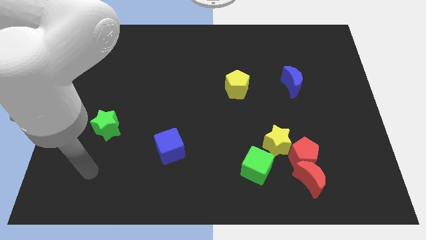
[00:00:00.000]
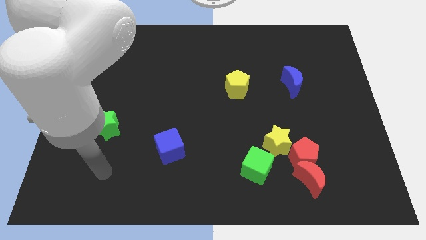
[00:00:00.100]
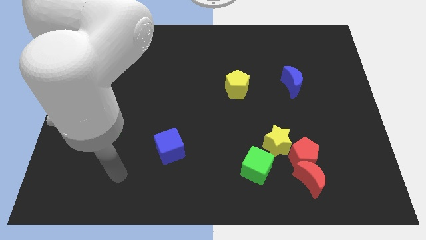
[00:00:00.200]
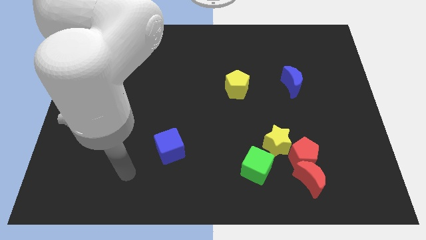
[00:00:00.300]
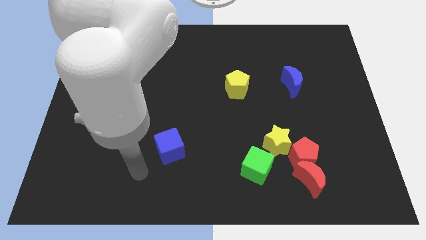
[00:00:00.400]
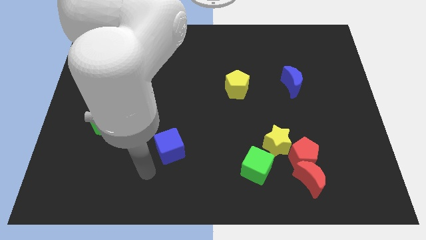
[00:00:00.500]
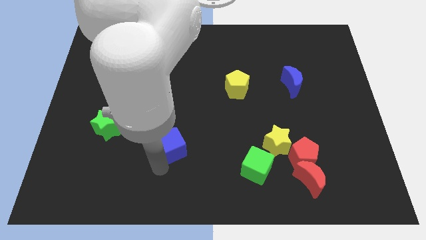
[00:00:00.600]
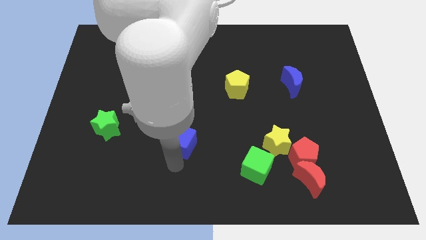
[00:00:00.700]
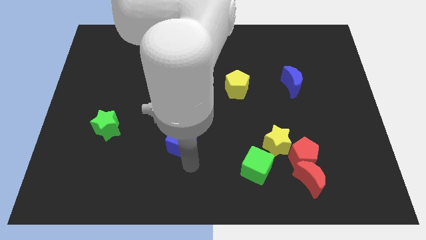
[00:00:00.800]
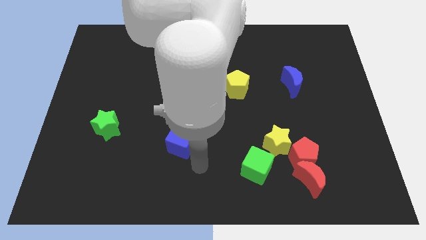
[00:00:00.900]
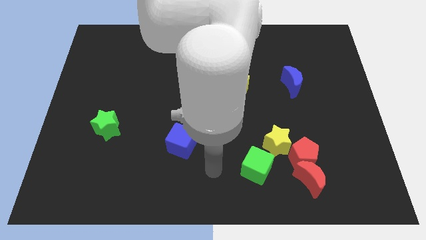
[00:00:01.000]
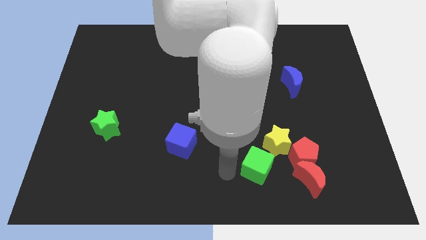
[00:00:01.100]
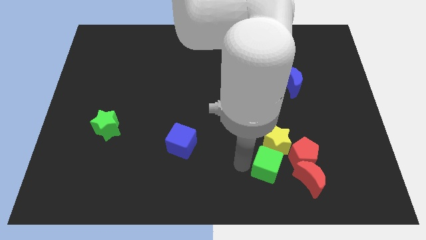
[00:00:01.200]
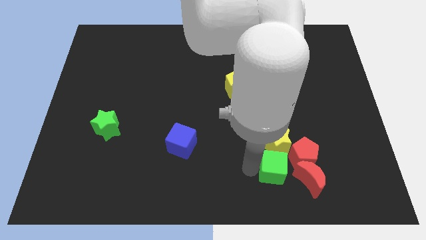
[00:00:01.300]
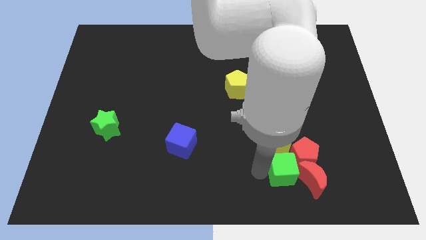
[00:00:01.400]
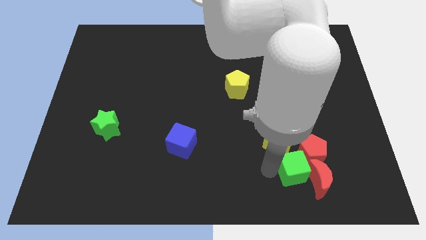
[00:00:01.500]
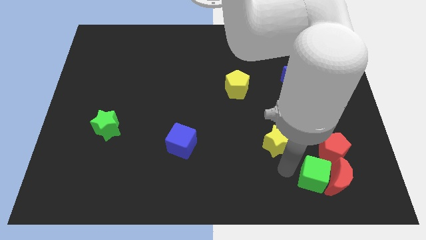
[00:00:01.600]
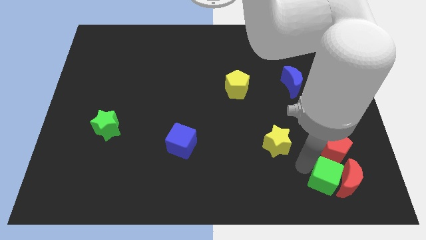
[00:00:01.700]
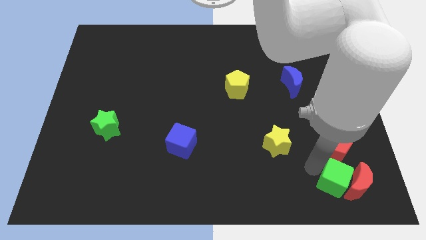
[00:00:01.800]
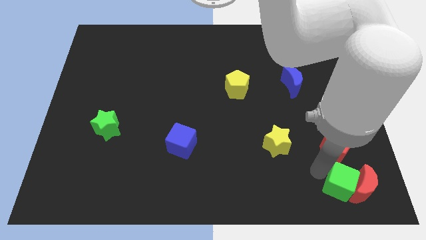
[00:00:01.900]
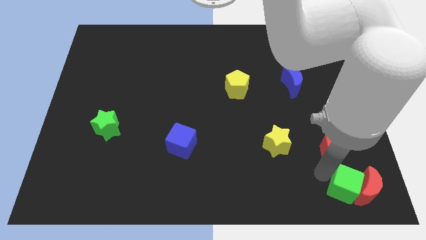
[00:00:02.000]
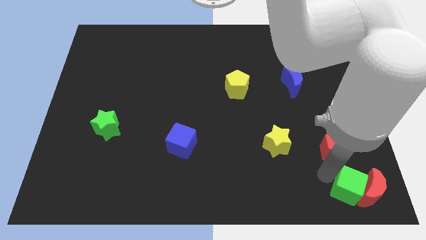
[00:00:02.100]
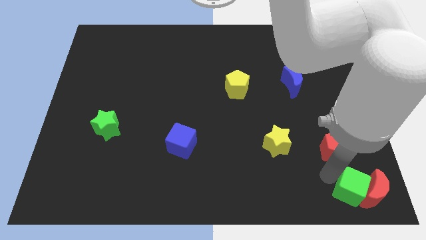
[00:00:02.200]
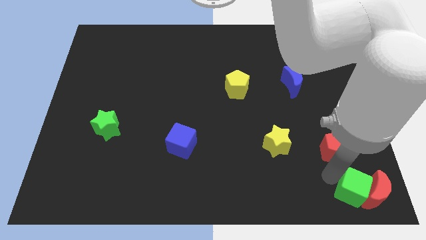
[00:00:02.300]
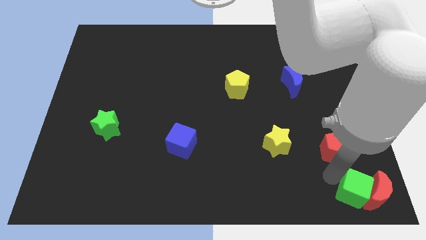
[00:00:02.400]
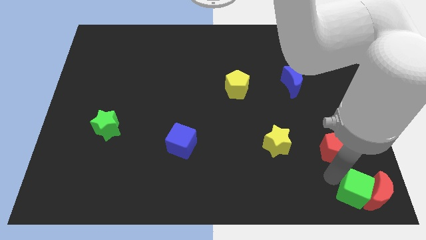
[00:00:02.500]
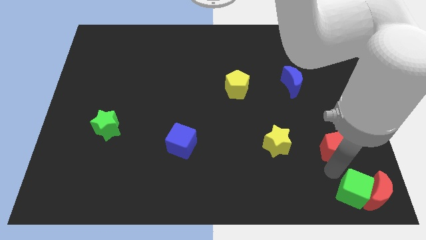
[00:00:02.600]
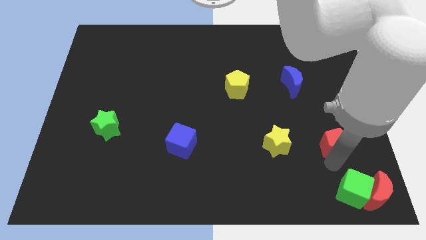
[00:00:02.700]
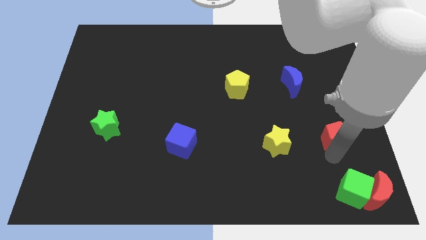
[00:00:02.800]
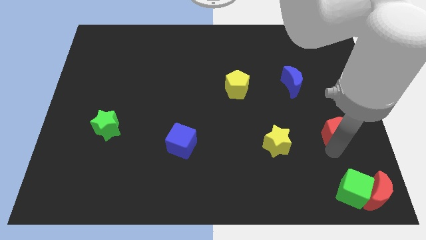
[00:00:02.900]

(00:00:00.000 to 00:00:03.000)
move the red pentagon away from the group

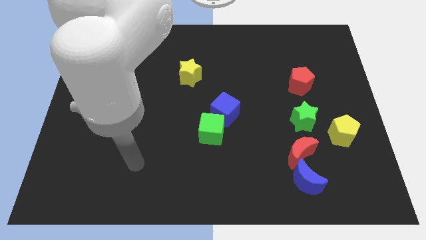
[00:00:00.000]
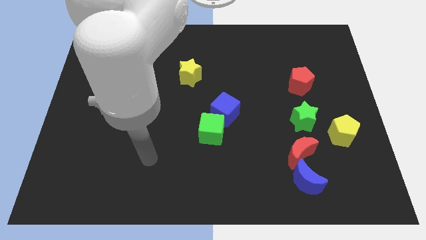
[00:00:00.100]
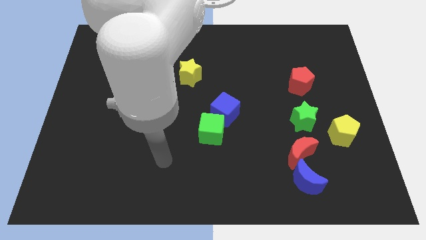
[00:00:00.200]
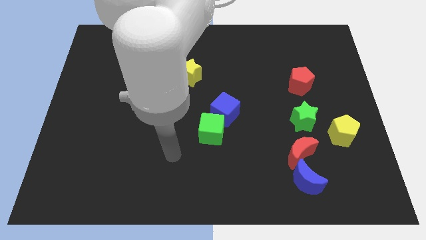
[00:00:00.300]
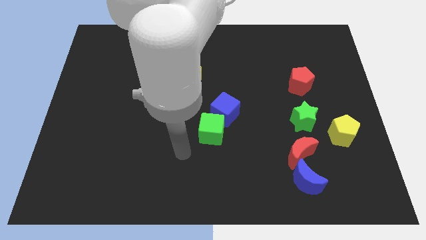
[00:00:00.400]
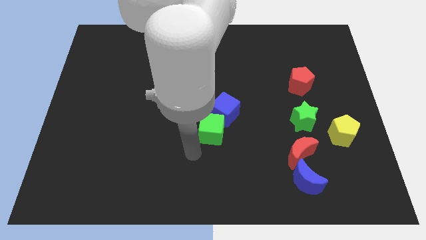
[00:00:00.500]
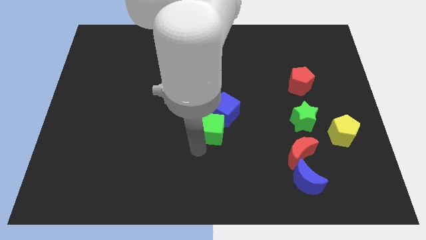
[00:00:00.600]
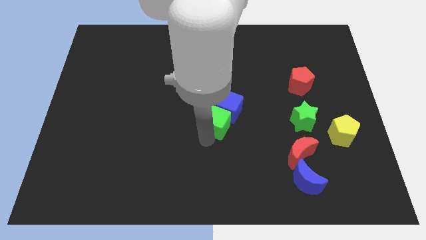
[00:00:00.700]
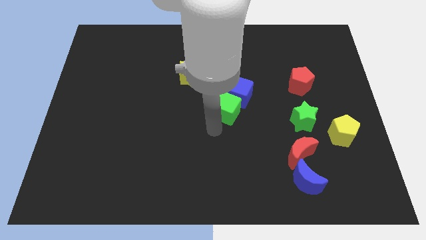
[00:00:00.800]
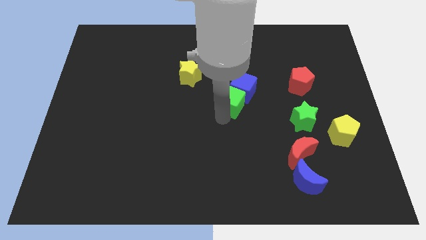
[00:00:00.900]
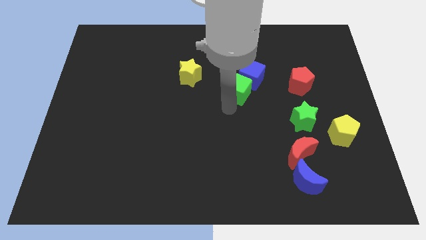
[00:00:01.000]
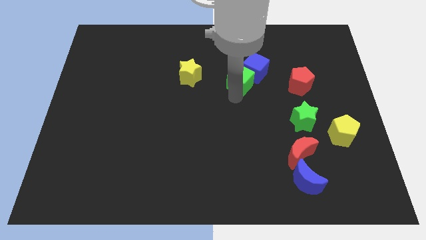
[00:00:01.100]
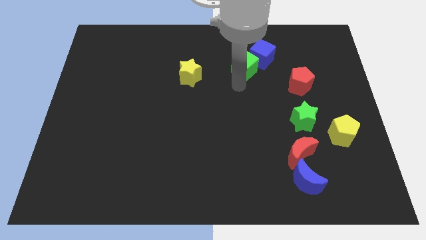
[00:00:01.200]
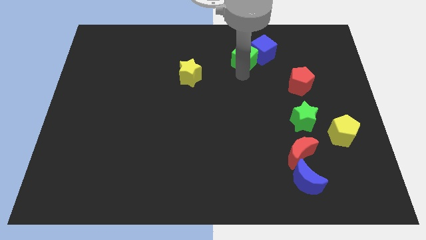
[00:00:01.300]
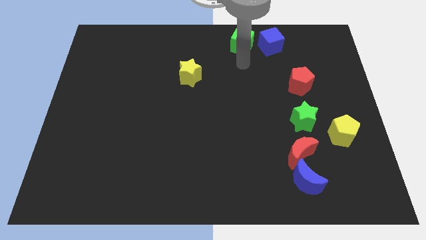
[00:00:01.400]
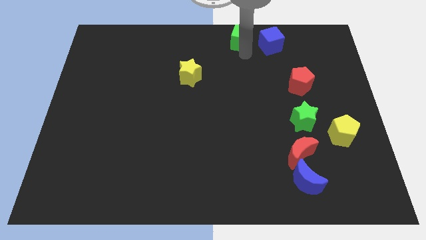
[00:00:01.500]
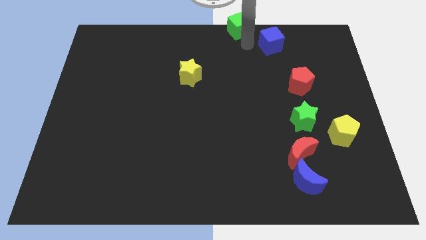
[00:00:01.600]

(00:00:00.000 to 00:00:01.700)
separate the blue cube from the green cube

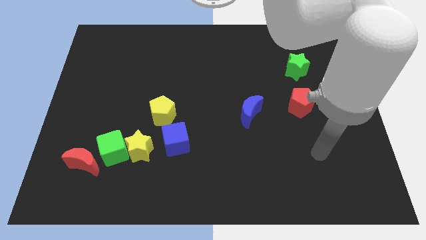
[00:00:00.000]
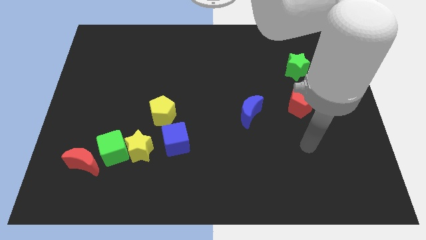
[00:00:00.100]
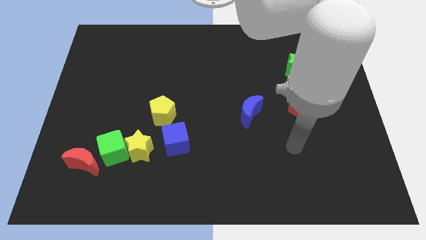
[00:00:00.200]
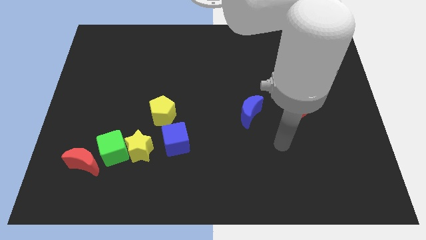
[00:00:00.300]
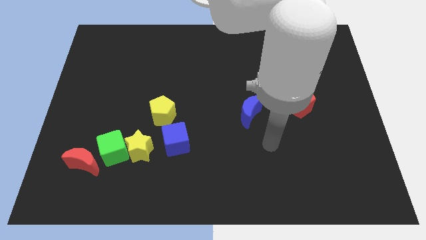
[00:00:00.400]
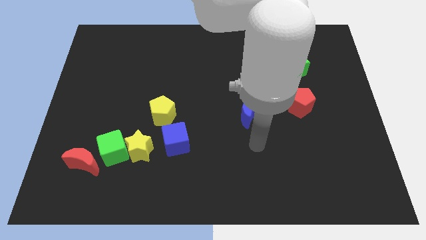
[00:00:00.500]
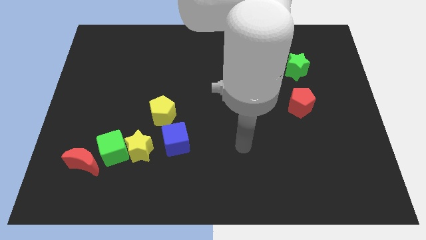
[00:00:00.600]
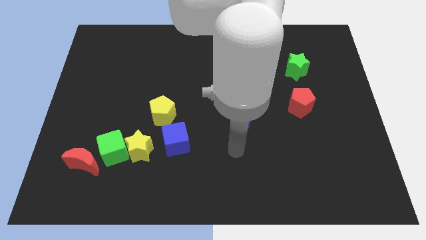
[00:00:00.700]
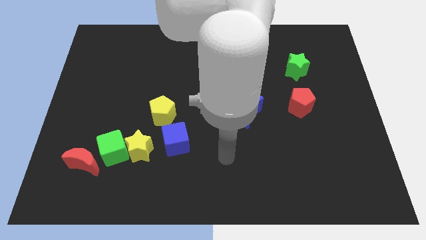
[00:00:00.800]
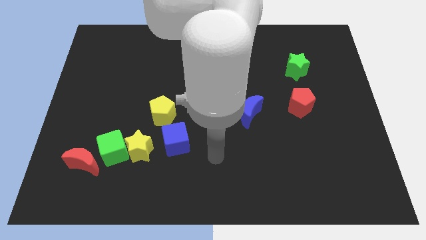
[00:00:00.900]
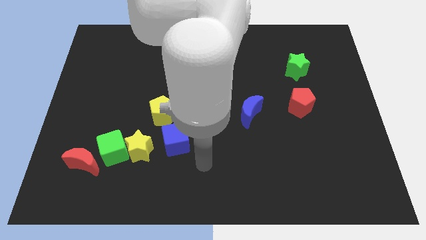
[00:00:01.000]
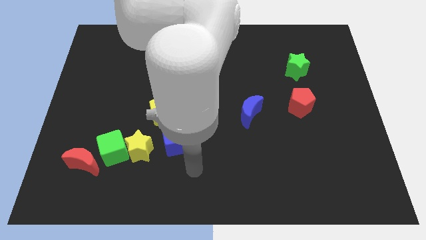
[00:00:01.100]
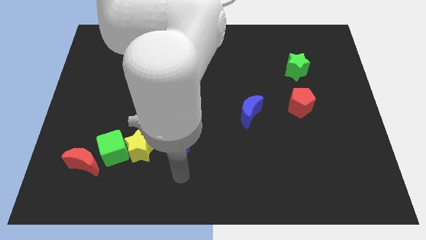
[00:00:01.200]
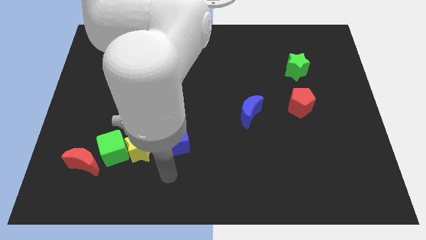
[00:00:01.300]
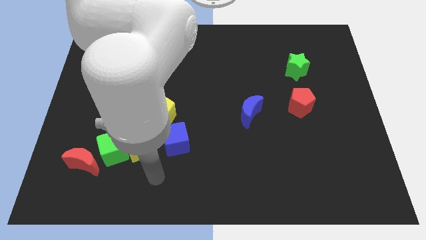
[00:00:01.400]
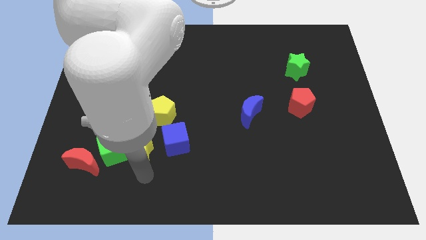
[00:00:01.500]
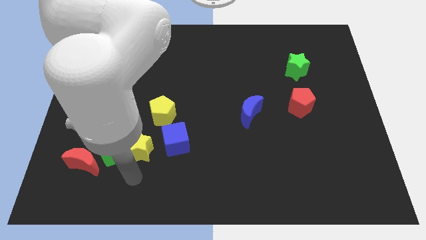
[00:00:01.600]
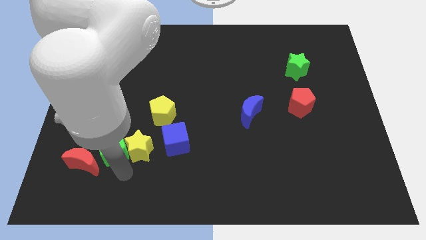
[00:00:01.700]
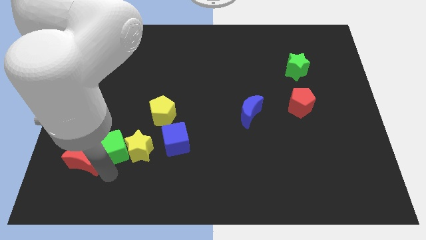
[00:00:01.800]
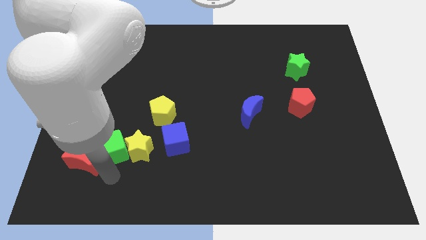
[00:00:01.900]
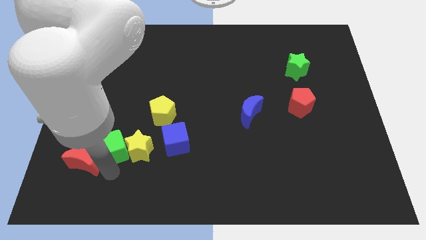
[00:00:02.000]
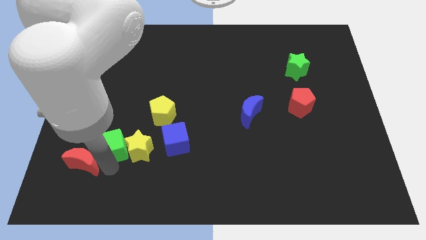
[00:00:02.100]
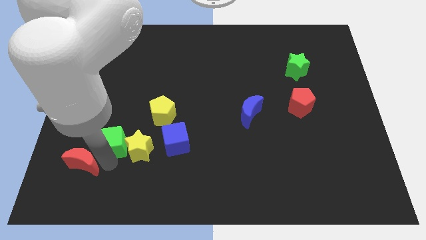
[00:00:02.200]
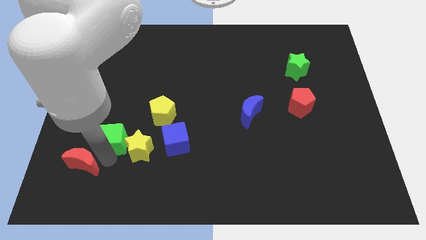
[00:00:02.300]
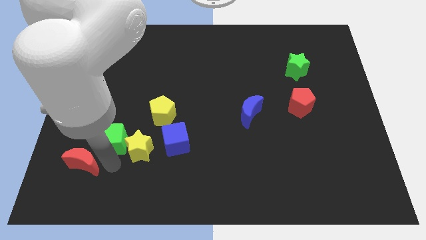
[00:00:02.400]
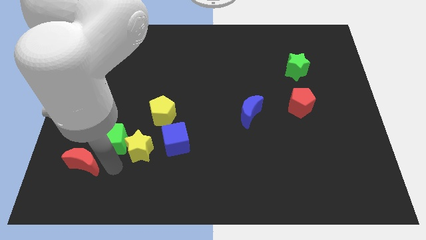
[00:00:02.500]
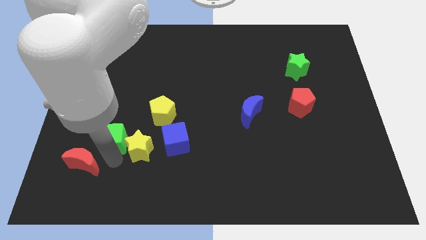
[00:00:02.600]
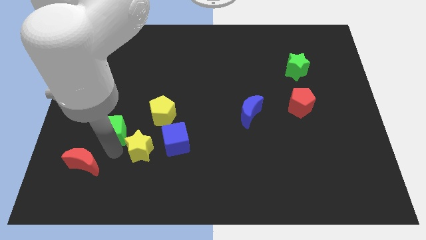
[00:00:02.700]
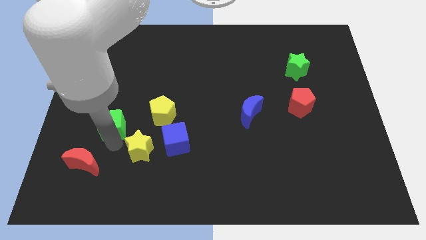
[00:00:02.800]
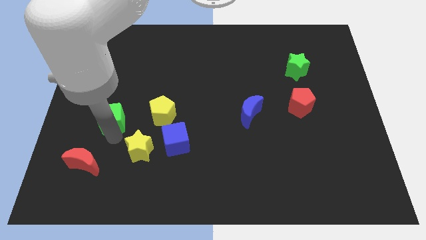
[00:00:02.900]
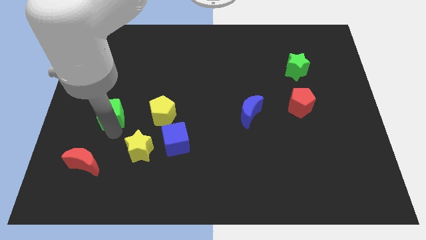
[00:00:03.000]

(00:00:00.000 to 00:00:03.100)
pull the green cube apart from the yellow star and red moon

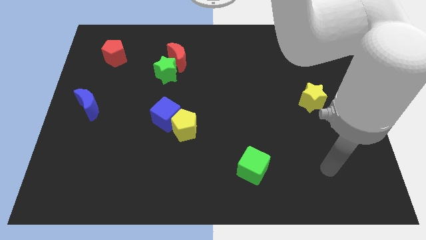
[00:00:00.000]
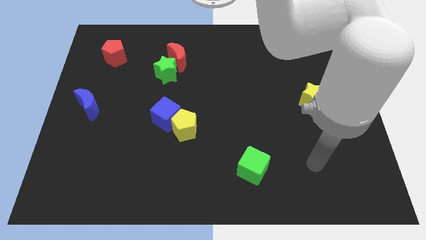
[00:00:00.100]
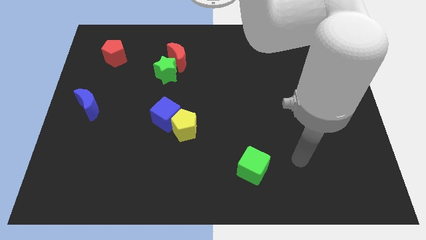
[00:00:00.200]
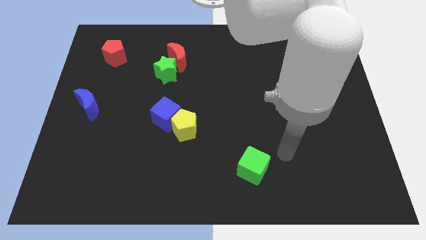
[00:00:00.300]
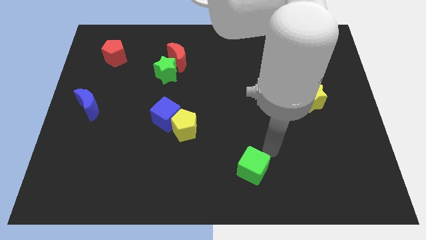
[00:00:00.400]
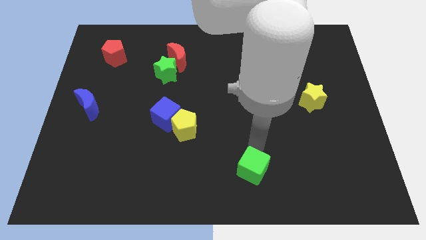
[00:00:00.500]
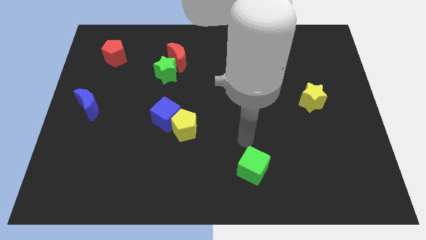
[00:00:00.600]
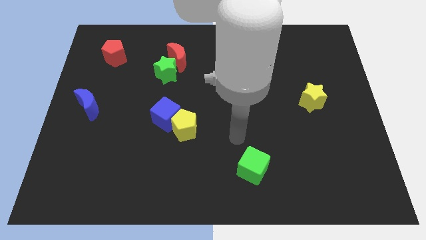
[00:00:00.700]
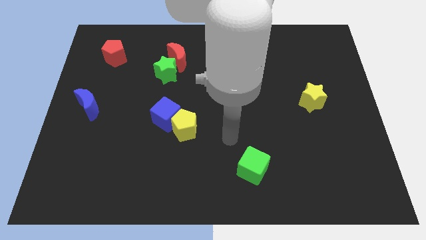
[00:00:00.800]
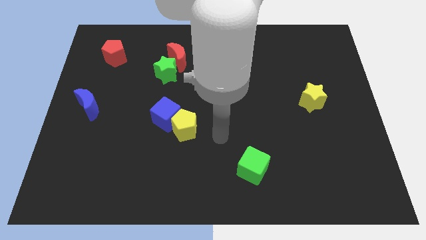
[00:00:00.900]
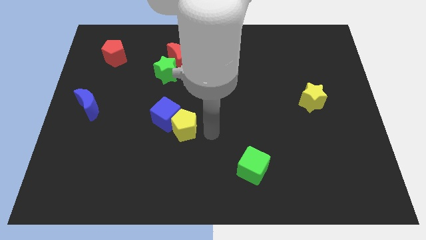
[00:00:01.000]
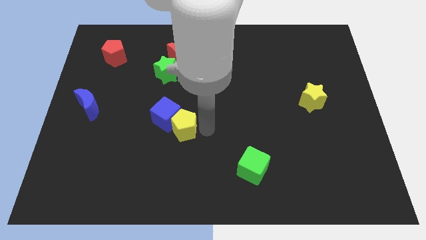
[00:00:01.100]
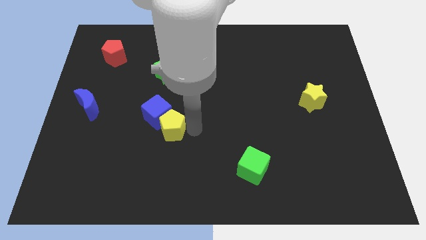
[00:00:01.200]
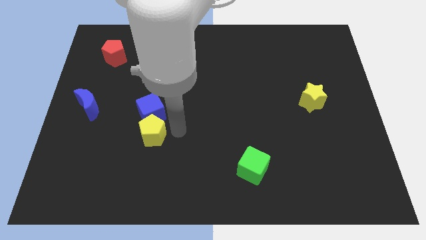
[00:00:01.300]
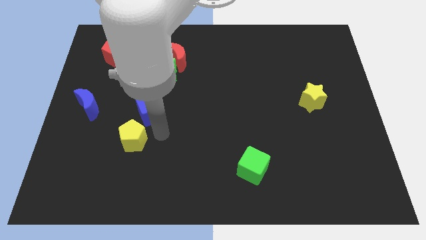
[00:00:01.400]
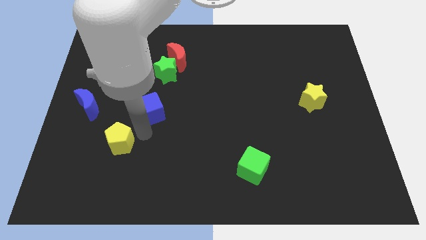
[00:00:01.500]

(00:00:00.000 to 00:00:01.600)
move the blue cube away from the yellow pentagon
